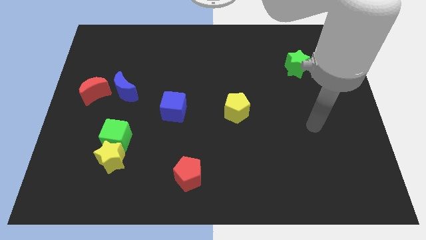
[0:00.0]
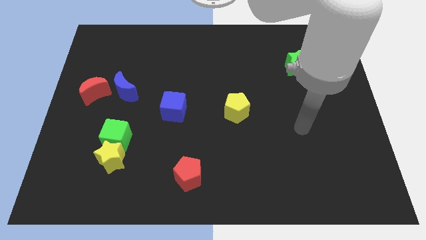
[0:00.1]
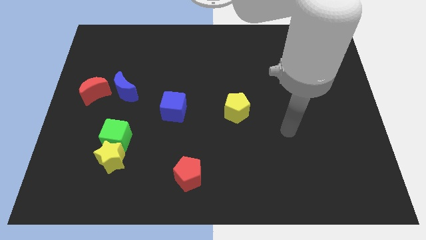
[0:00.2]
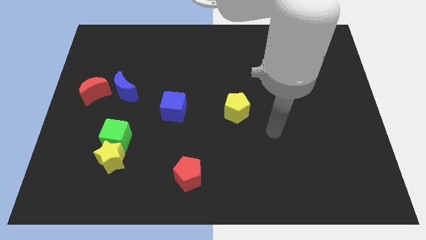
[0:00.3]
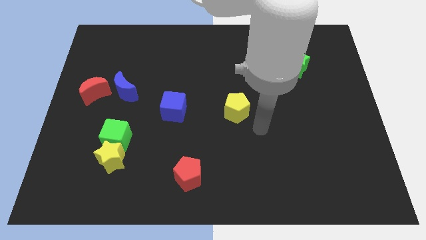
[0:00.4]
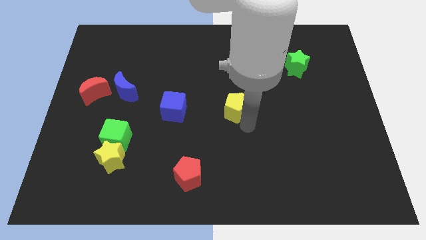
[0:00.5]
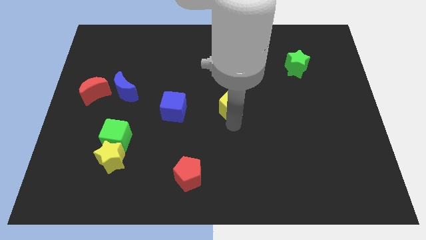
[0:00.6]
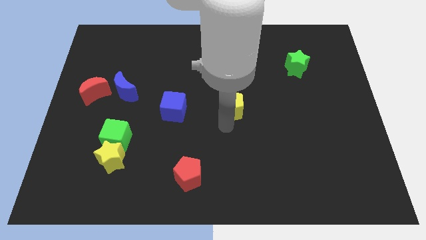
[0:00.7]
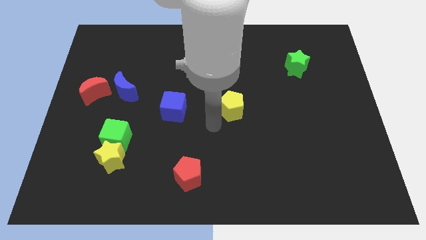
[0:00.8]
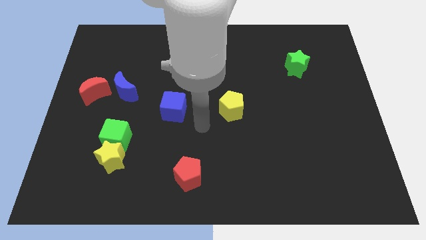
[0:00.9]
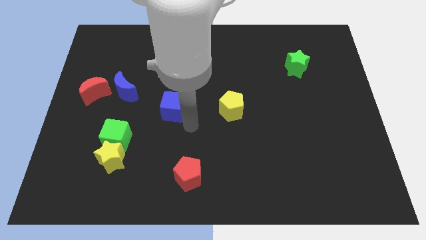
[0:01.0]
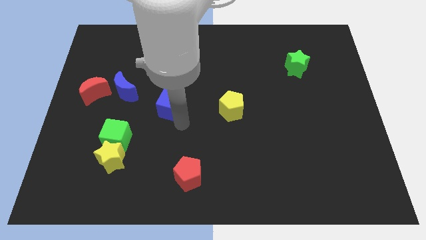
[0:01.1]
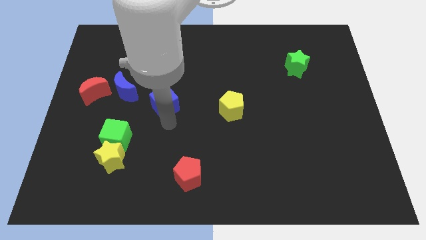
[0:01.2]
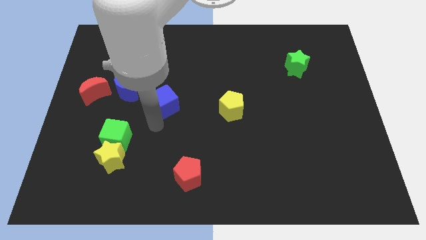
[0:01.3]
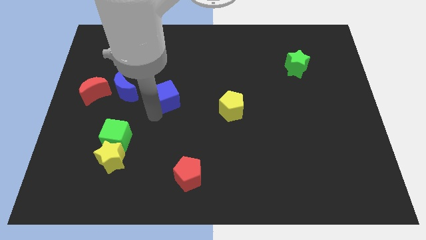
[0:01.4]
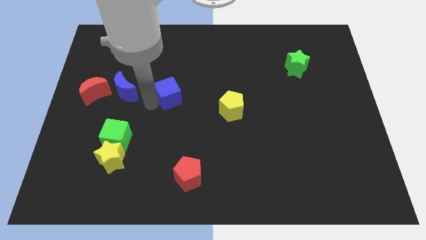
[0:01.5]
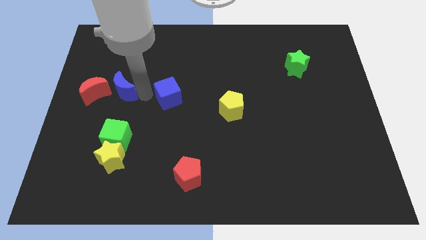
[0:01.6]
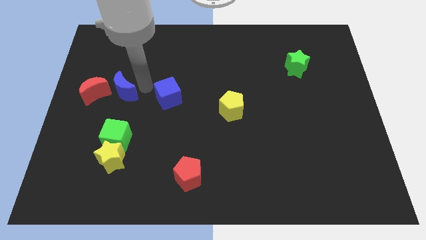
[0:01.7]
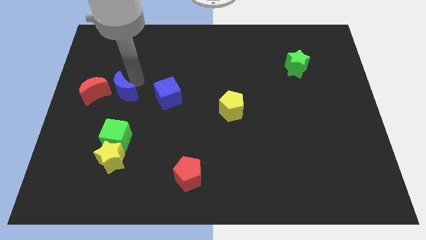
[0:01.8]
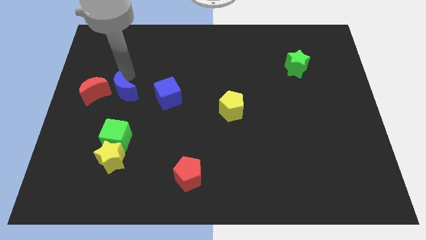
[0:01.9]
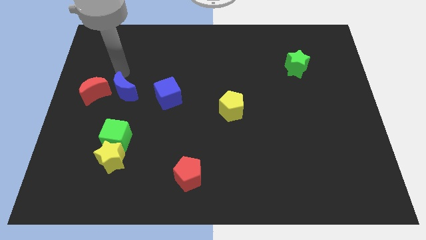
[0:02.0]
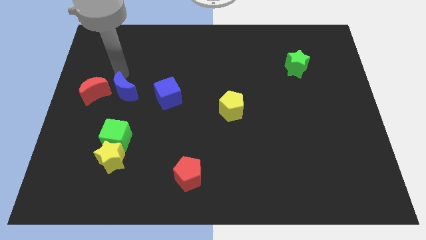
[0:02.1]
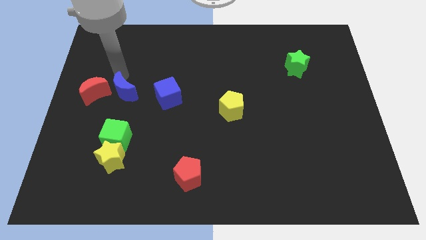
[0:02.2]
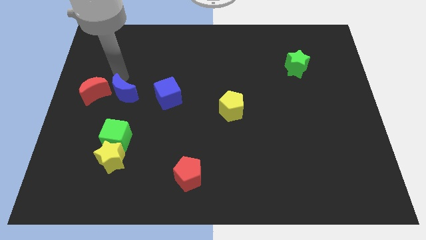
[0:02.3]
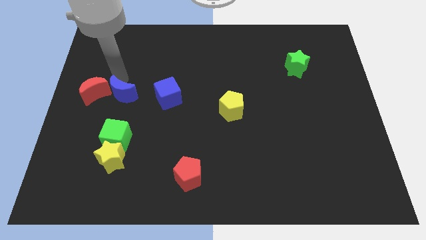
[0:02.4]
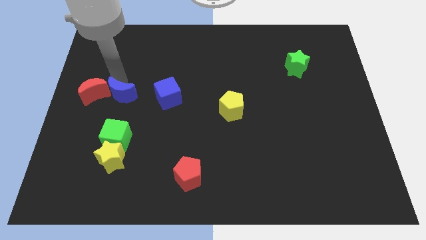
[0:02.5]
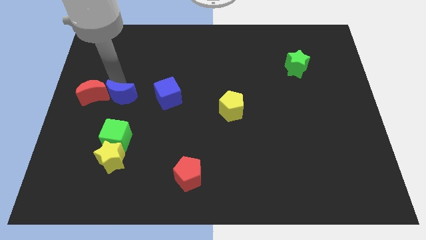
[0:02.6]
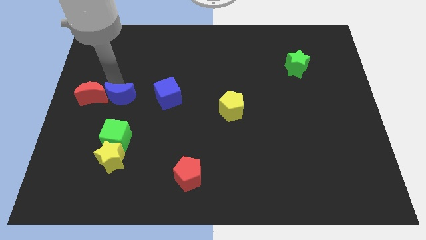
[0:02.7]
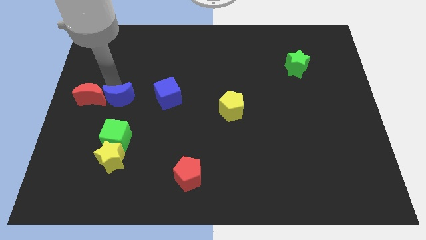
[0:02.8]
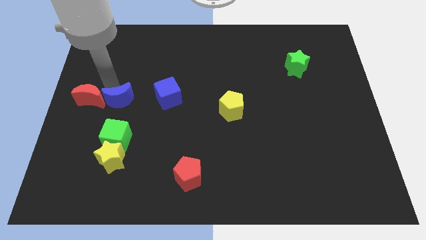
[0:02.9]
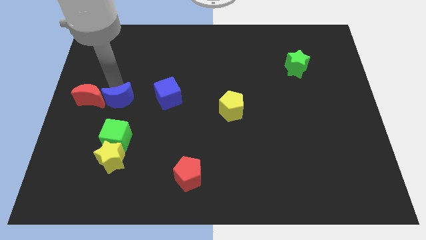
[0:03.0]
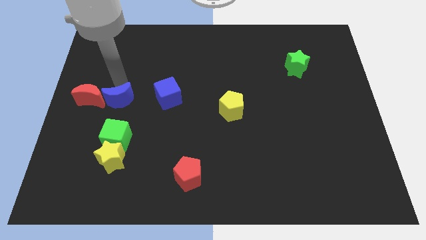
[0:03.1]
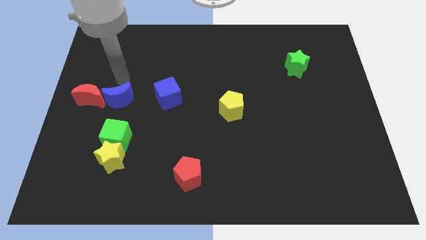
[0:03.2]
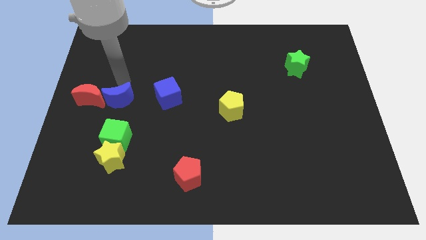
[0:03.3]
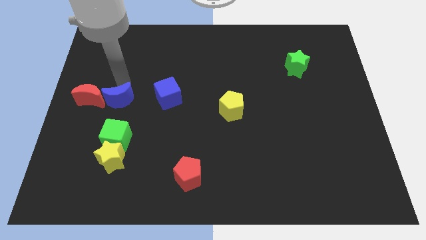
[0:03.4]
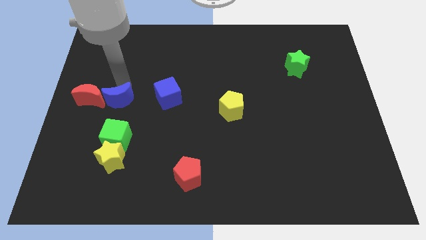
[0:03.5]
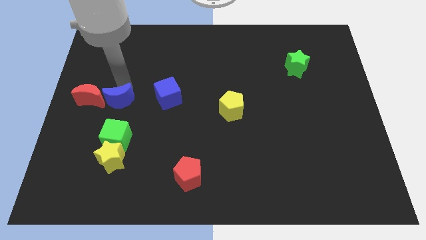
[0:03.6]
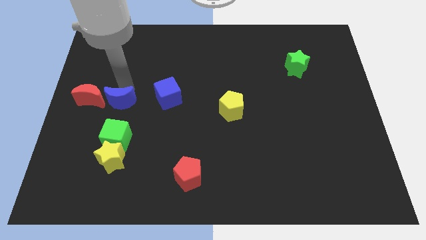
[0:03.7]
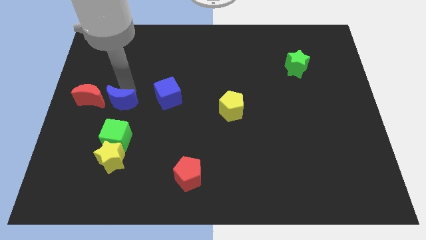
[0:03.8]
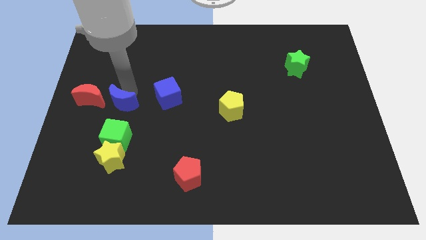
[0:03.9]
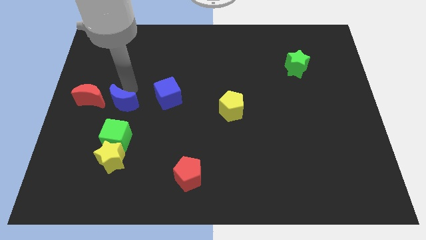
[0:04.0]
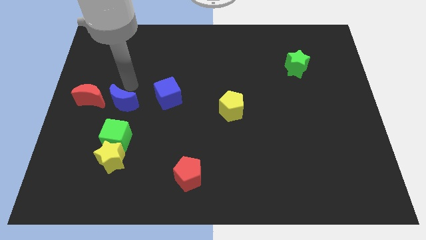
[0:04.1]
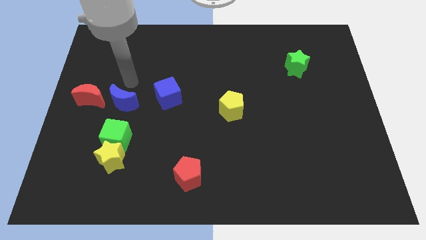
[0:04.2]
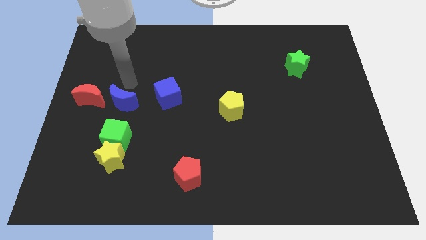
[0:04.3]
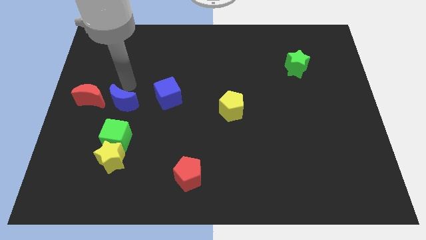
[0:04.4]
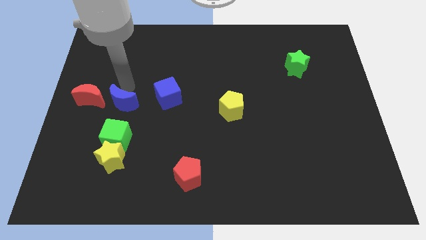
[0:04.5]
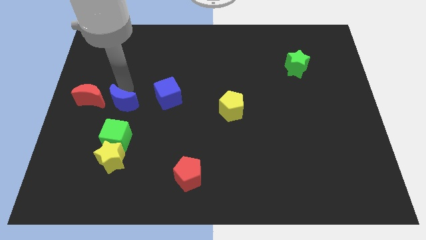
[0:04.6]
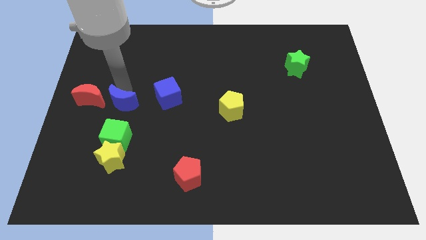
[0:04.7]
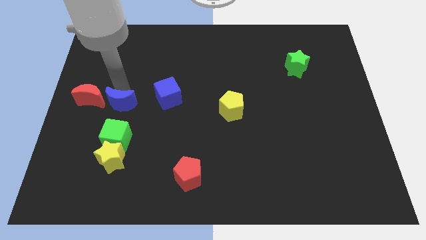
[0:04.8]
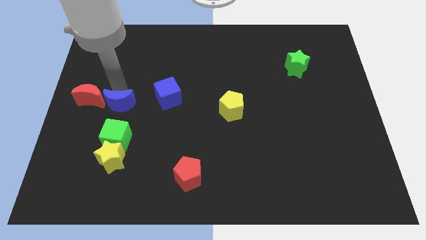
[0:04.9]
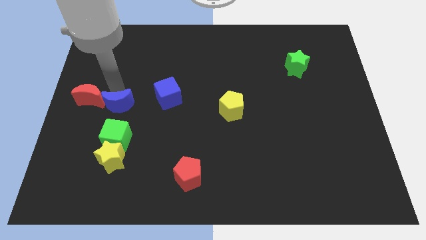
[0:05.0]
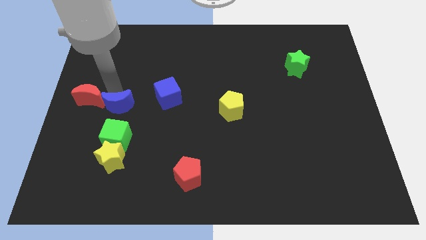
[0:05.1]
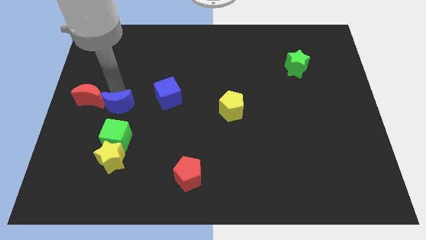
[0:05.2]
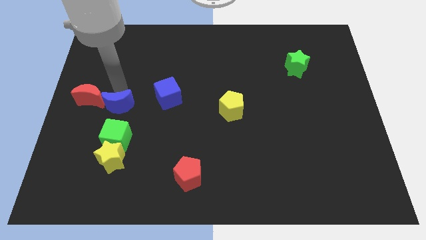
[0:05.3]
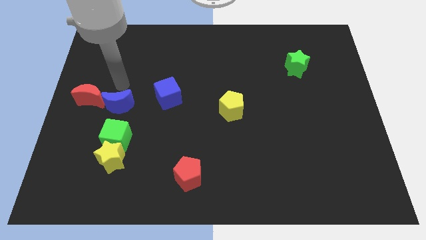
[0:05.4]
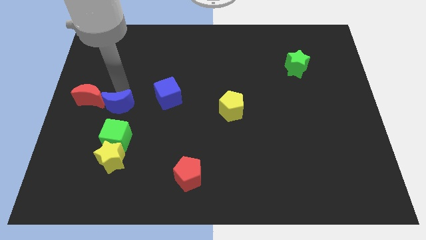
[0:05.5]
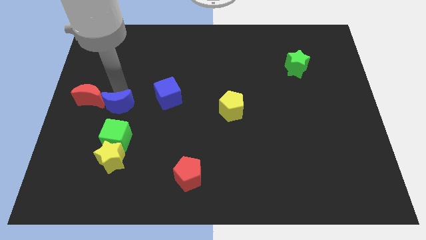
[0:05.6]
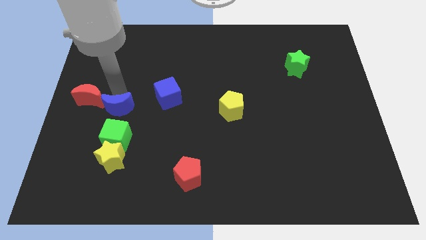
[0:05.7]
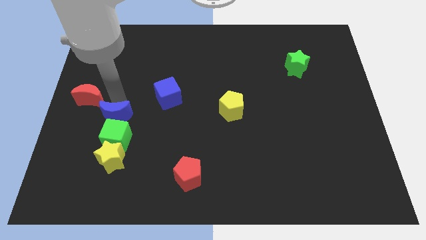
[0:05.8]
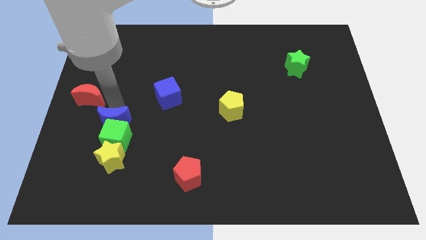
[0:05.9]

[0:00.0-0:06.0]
put the blue moon next to the green cube

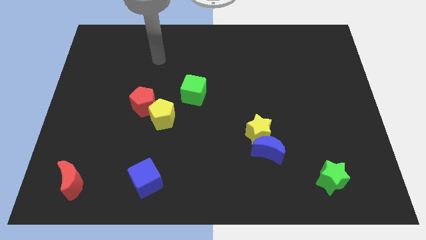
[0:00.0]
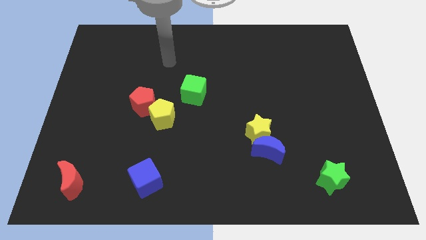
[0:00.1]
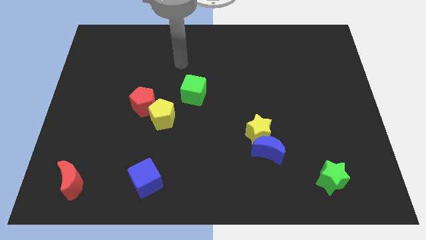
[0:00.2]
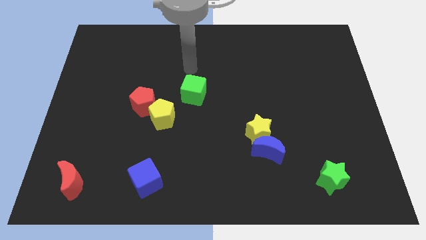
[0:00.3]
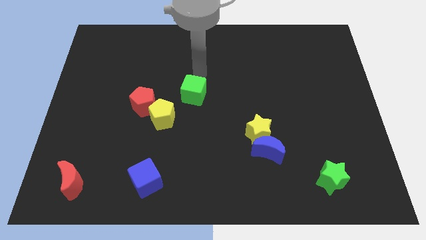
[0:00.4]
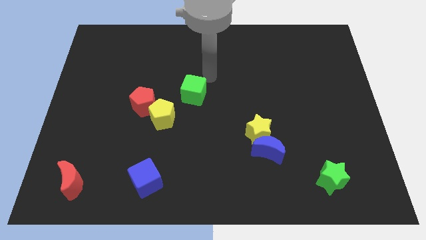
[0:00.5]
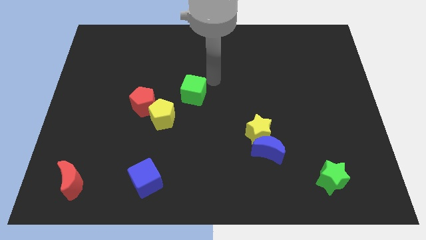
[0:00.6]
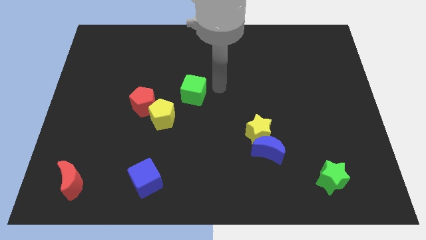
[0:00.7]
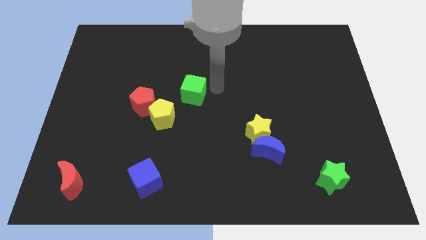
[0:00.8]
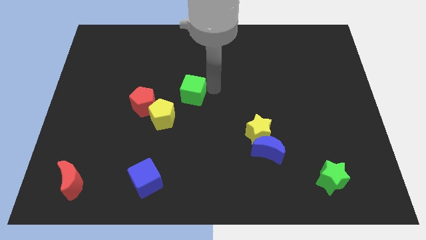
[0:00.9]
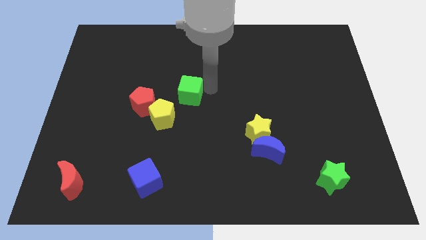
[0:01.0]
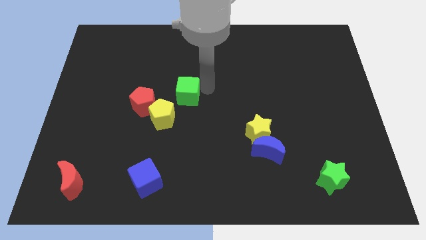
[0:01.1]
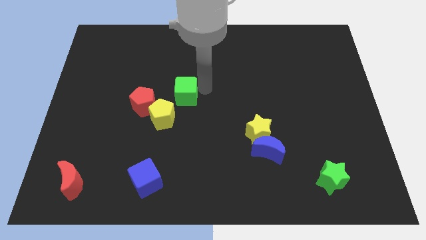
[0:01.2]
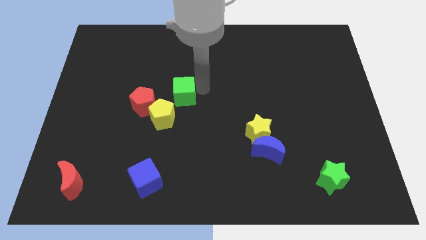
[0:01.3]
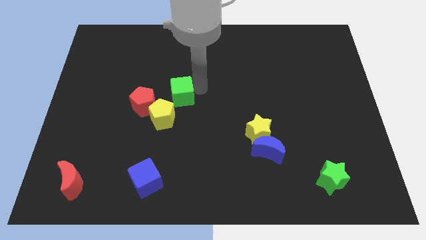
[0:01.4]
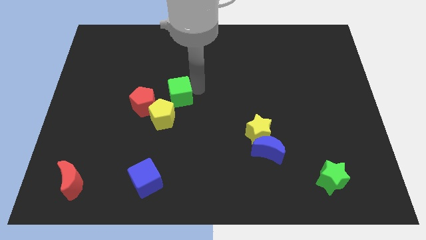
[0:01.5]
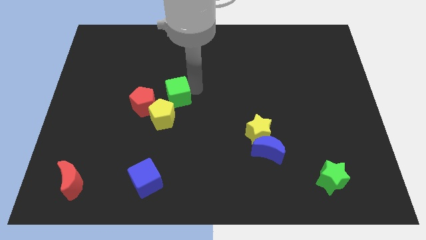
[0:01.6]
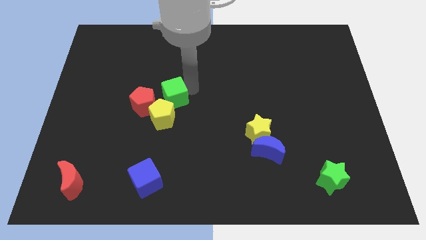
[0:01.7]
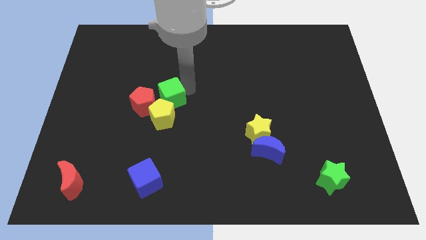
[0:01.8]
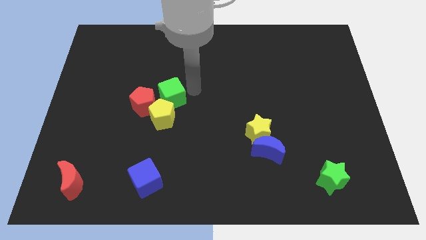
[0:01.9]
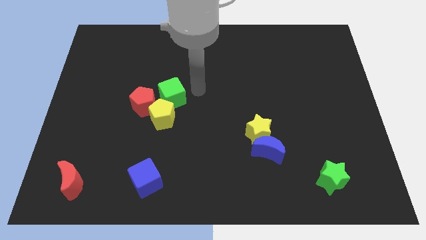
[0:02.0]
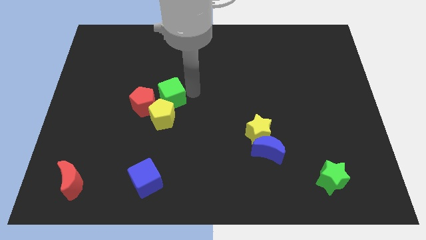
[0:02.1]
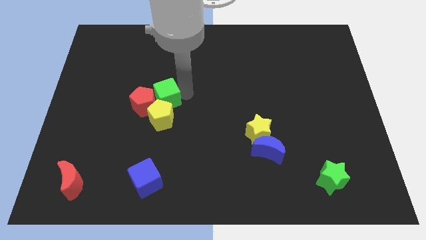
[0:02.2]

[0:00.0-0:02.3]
push the green cube towards the red pentagon
